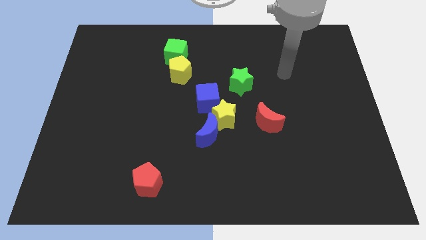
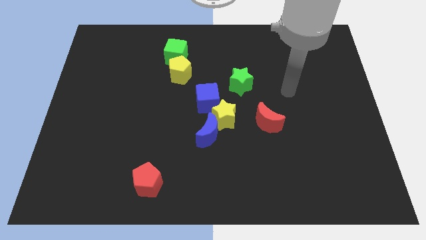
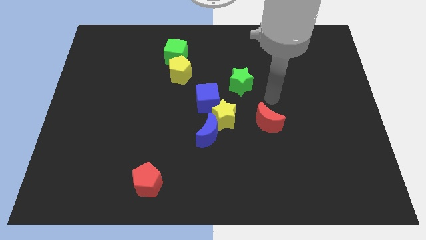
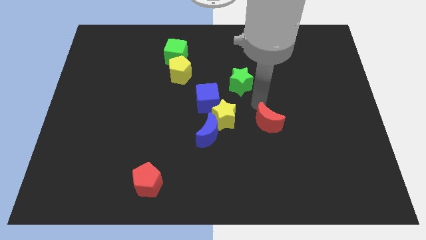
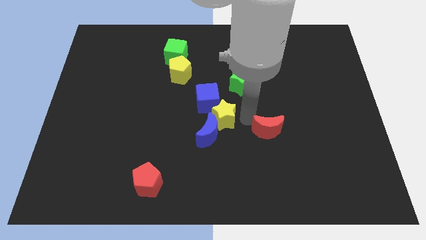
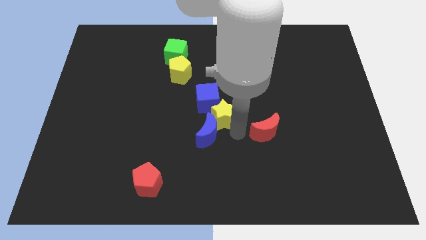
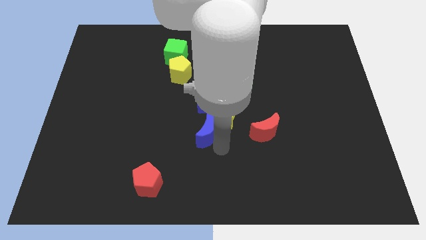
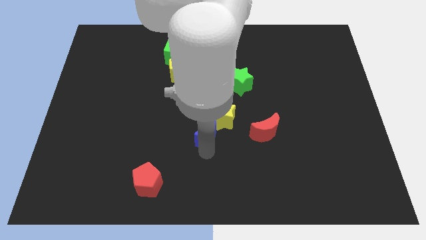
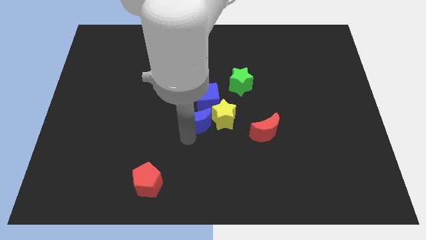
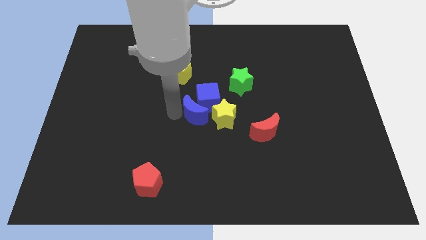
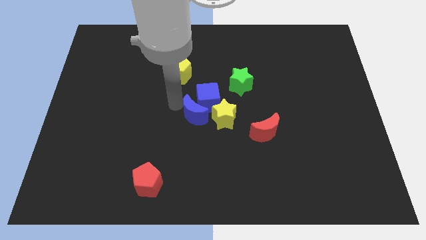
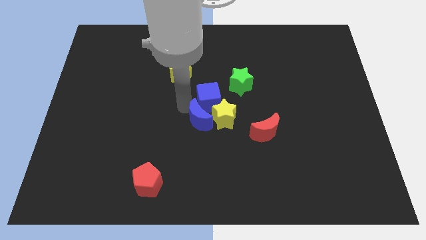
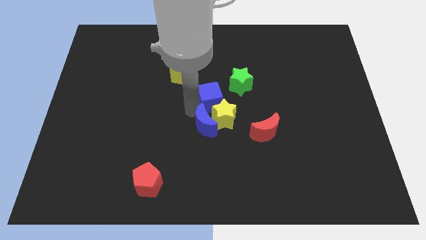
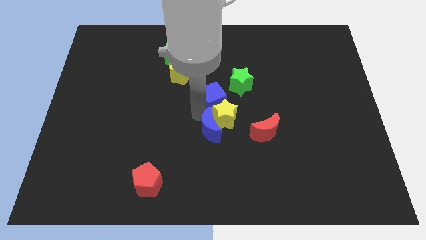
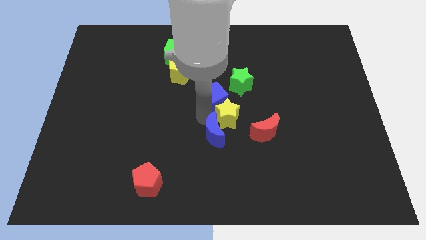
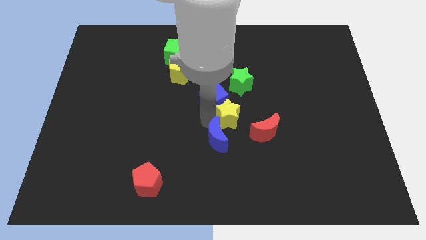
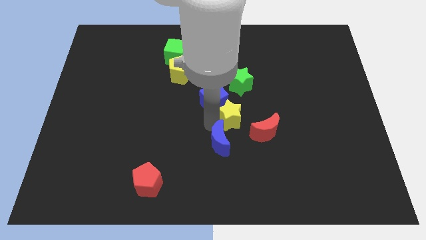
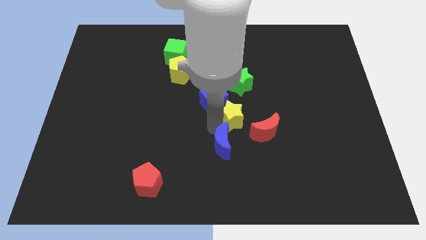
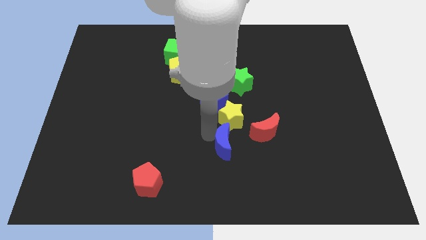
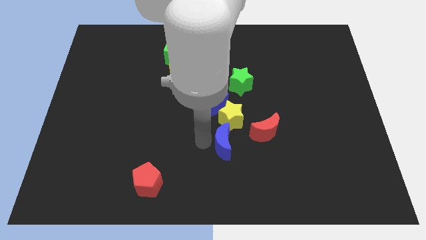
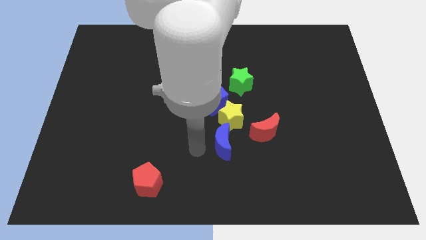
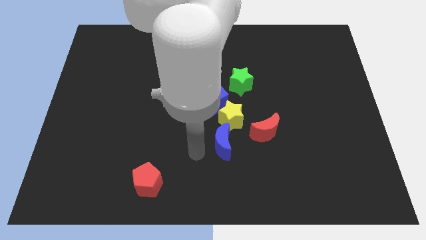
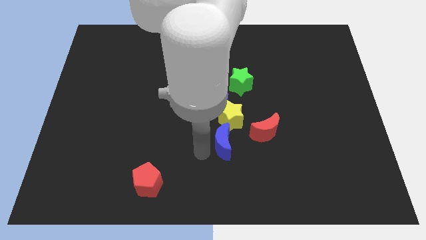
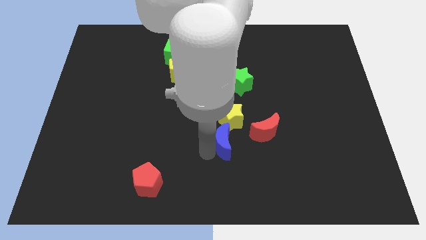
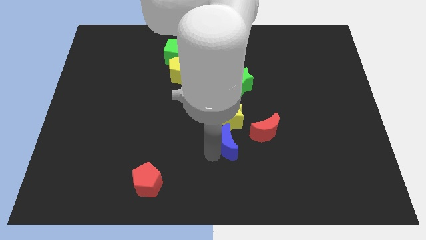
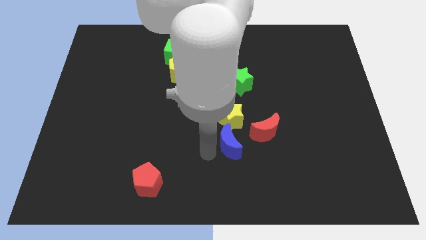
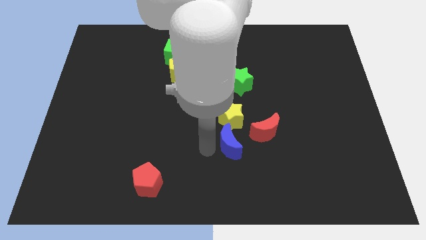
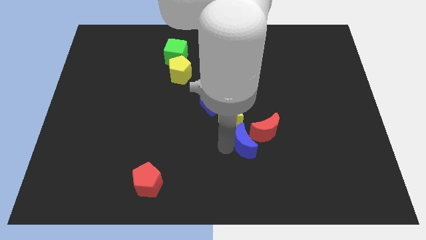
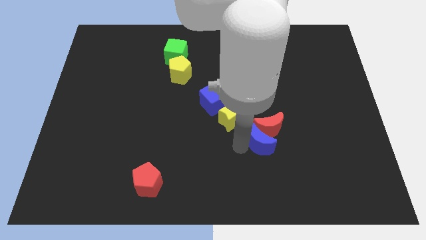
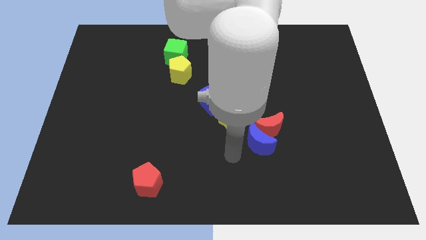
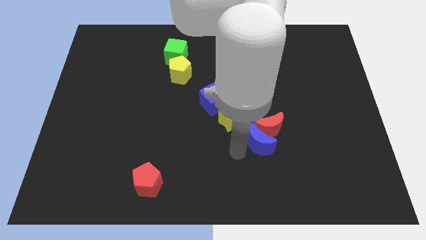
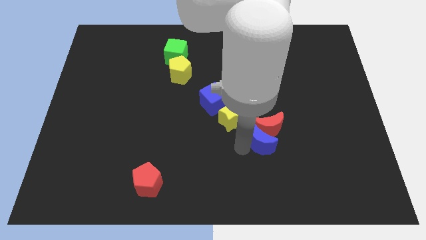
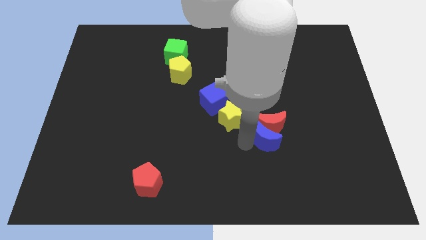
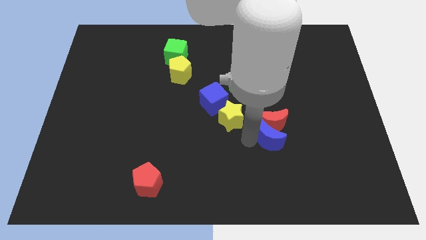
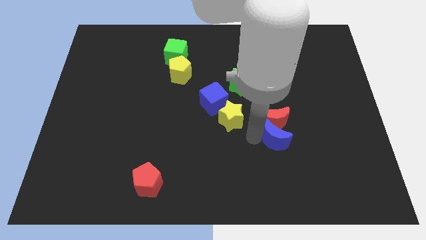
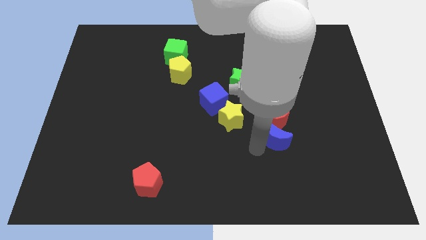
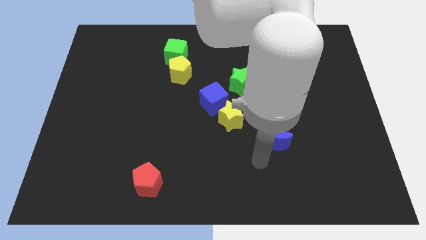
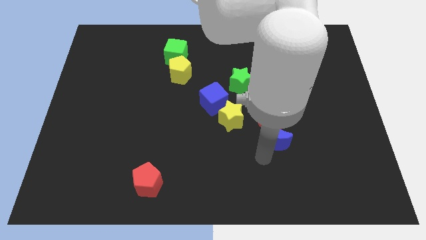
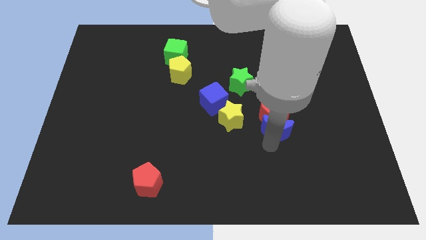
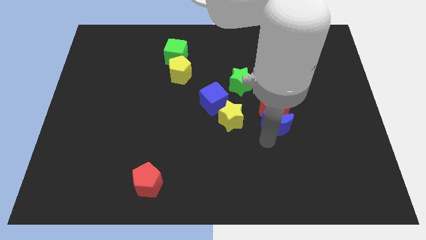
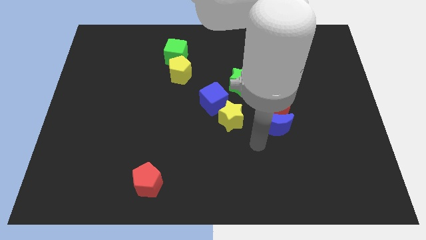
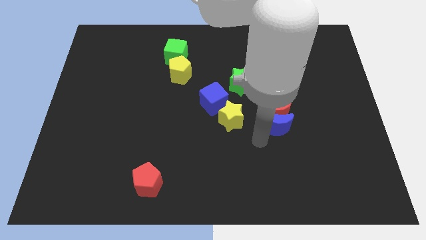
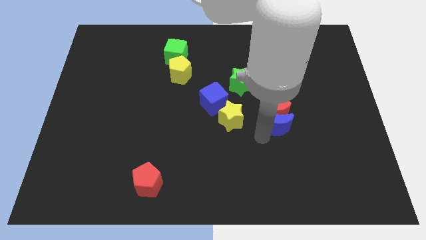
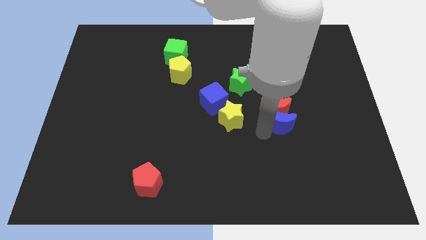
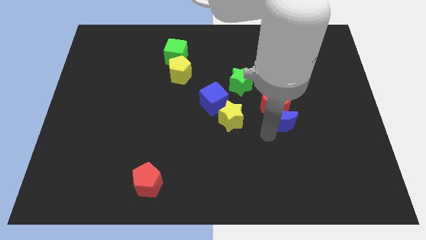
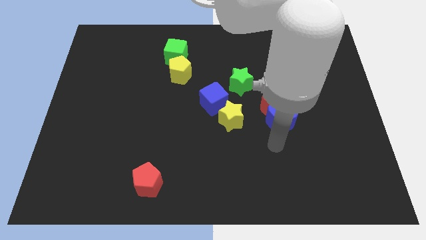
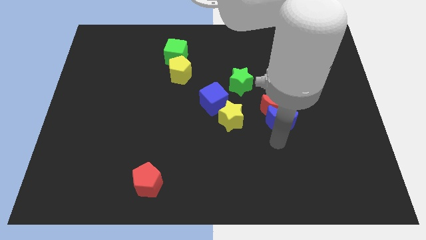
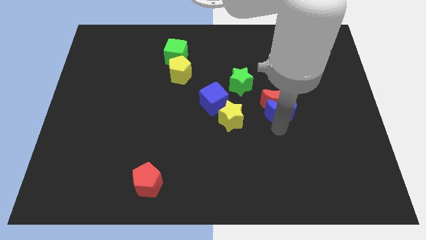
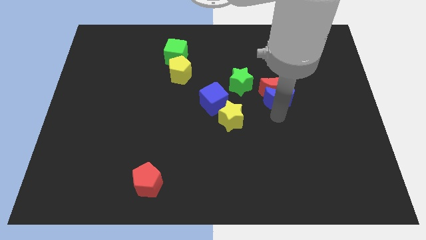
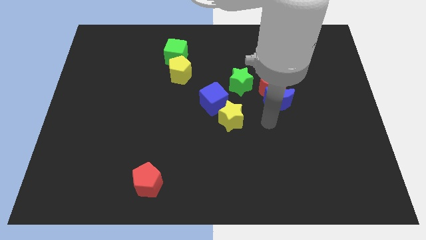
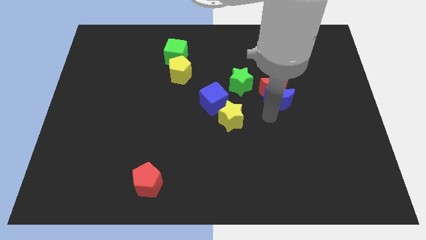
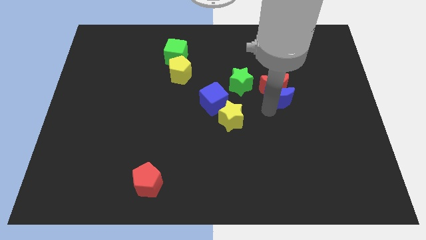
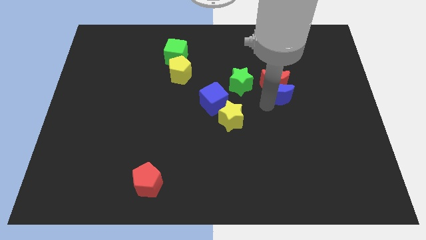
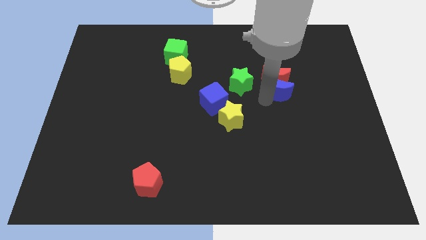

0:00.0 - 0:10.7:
slide the blue moon up and then right

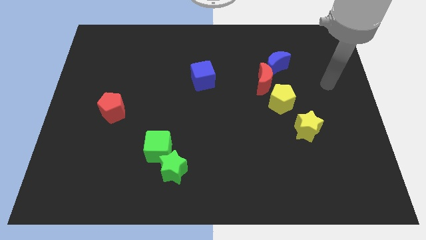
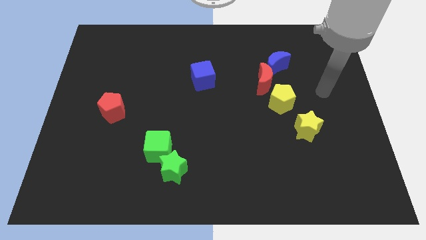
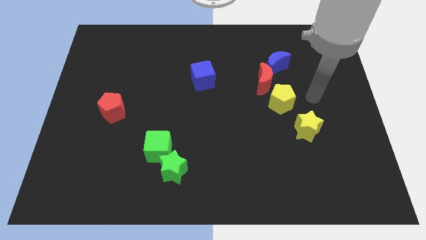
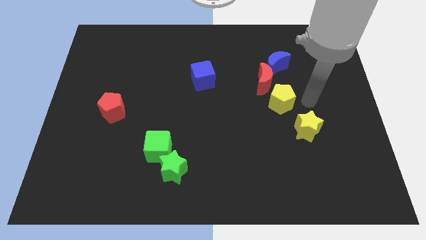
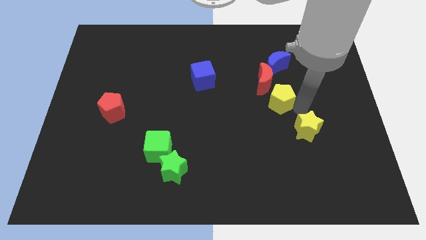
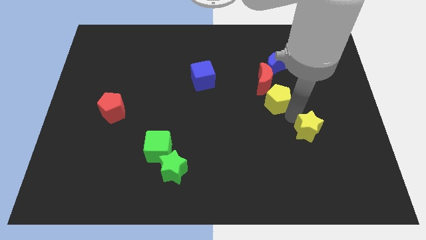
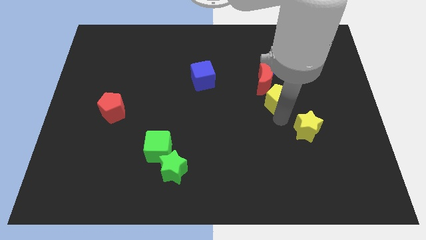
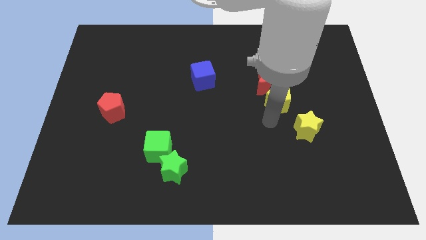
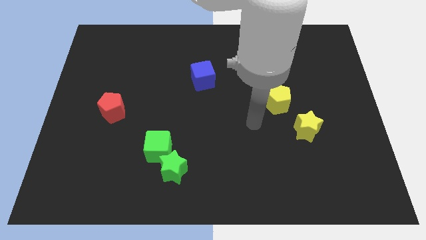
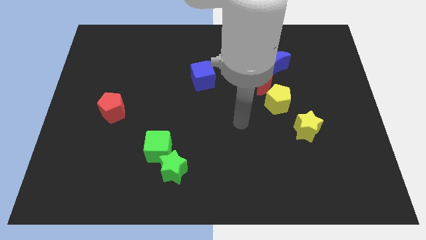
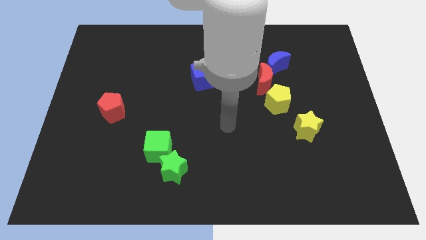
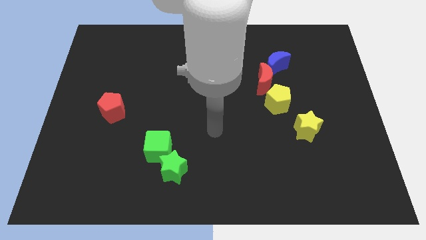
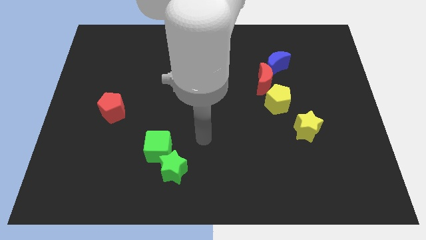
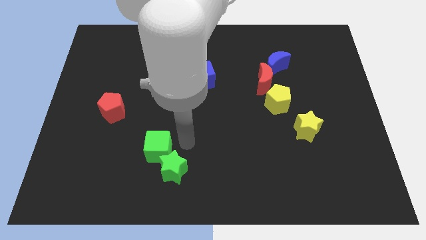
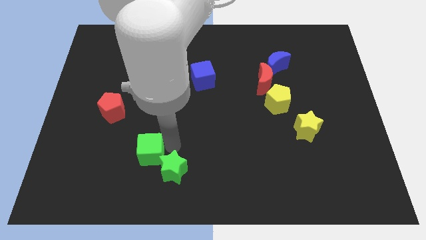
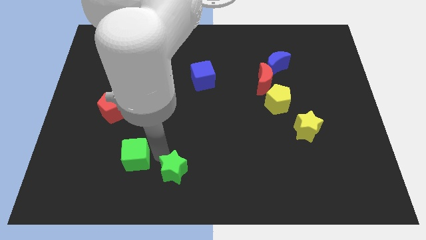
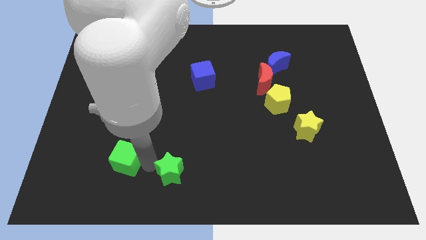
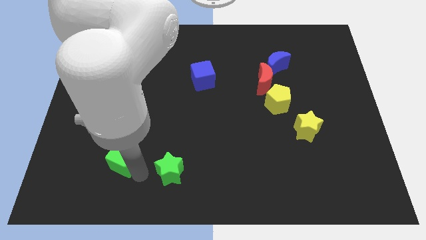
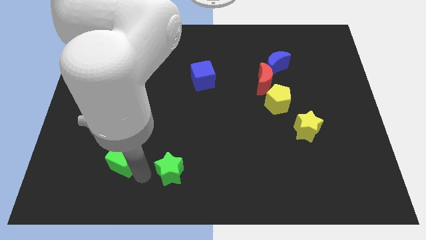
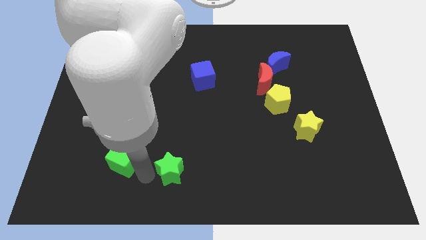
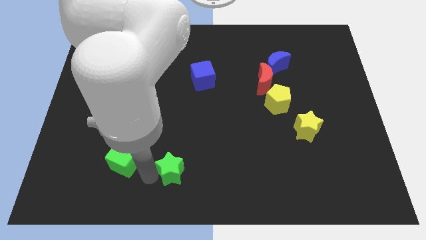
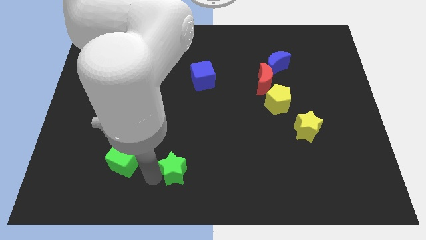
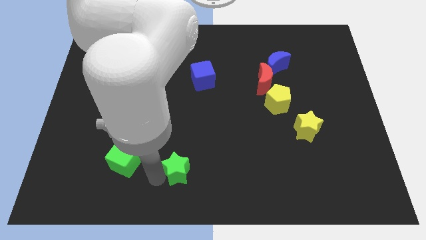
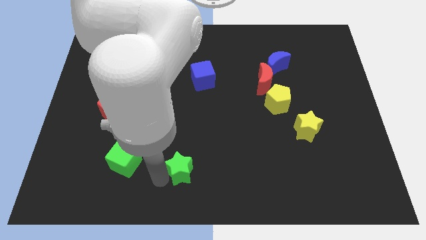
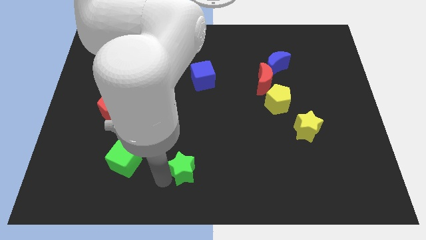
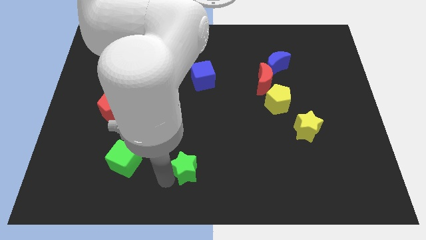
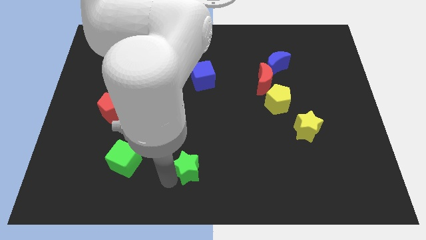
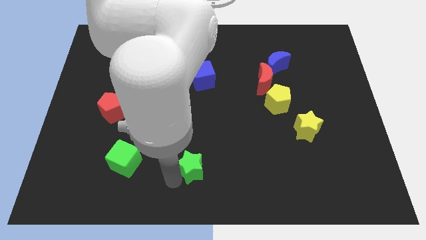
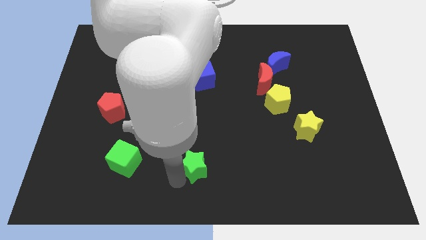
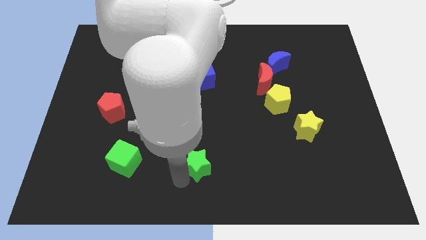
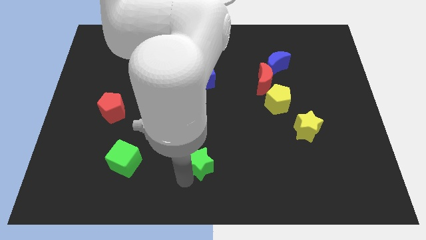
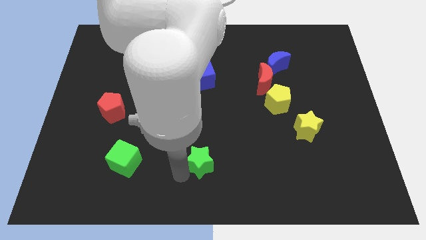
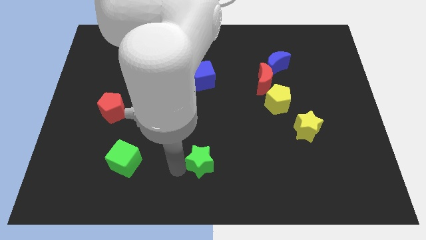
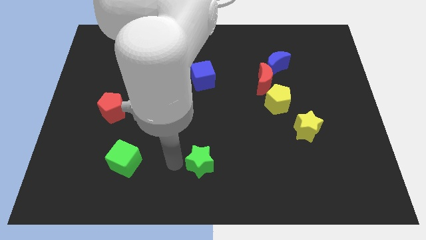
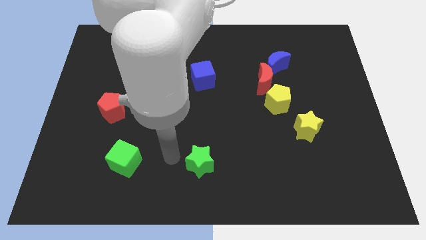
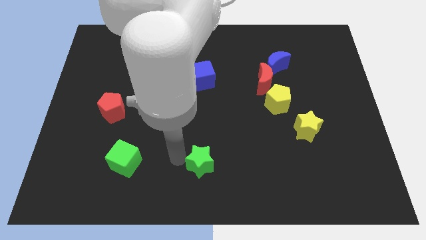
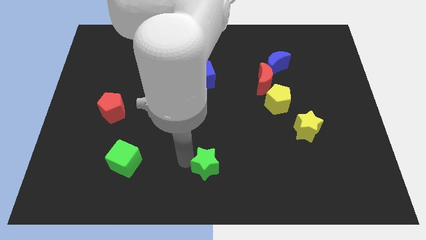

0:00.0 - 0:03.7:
move the green star to the right a little bit
